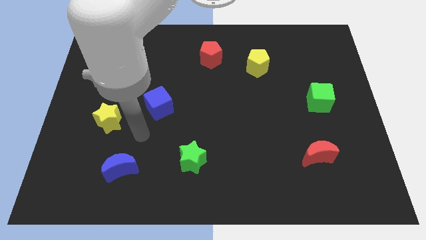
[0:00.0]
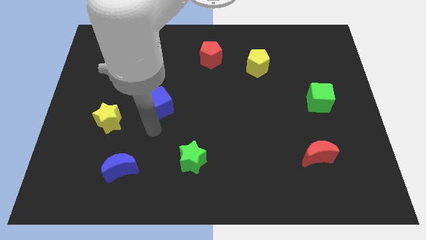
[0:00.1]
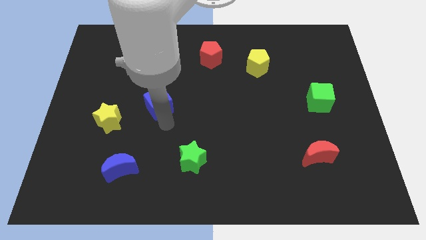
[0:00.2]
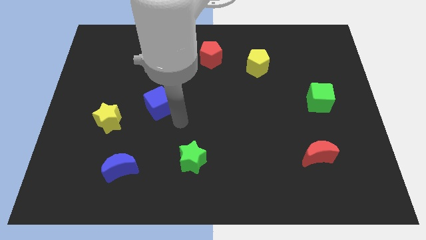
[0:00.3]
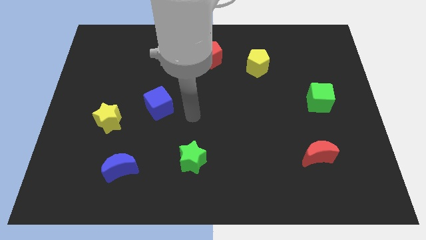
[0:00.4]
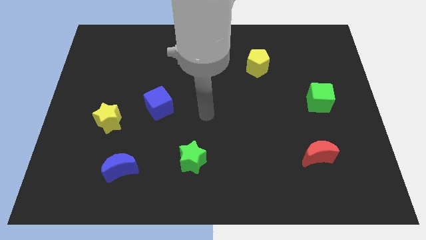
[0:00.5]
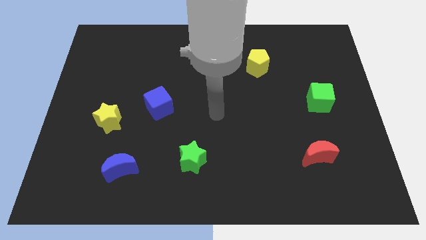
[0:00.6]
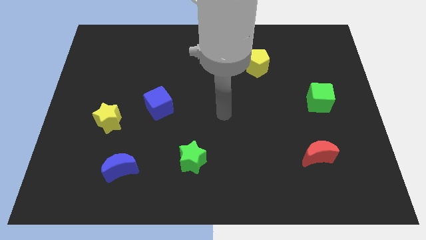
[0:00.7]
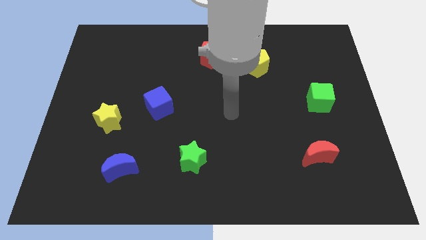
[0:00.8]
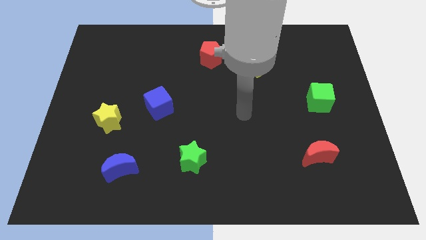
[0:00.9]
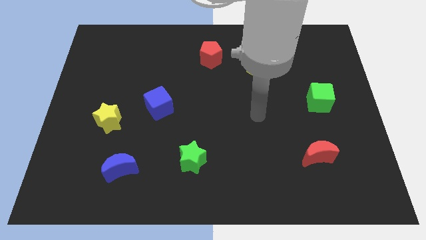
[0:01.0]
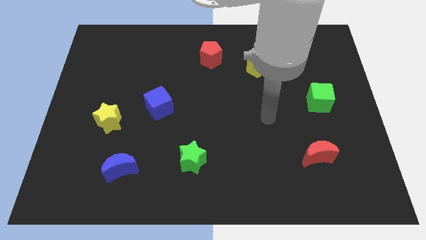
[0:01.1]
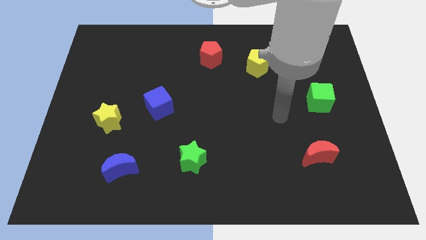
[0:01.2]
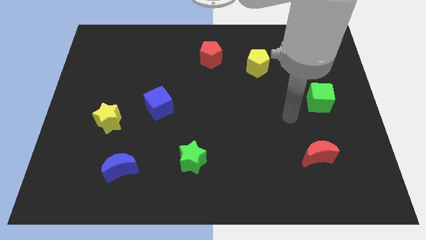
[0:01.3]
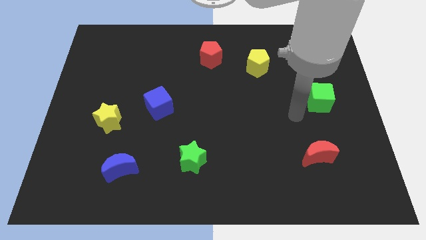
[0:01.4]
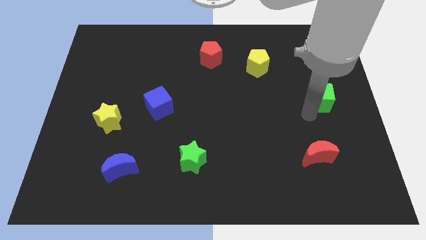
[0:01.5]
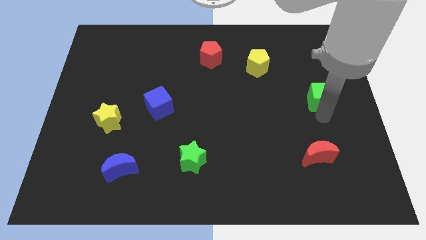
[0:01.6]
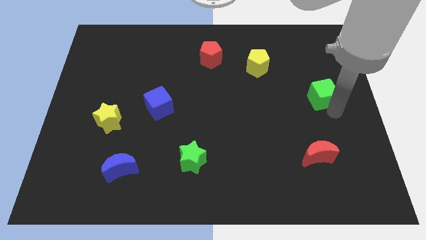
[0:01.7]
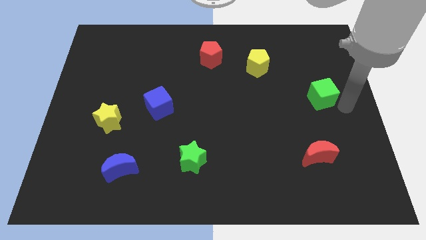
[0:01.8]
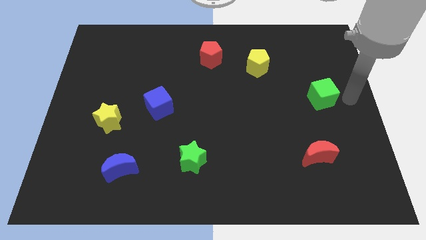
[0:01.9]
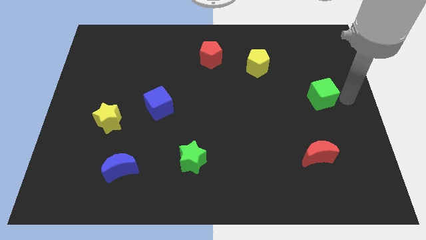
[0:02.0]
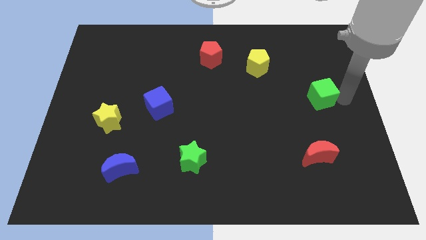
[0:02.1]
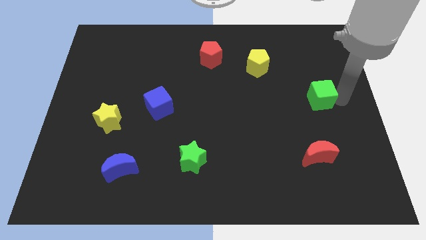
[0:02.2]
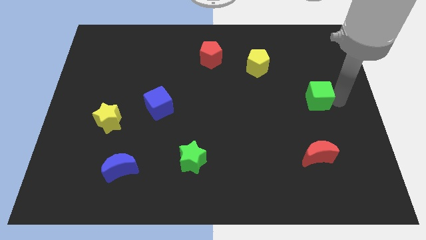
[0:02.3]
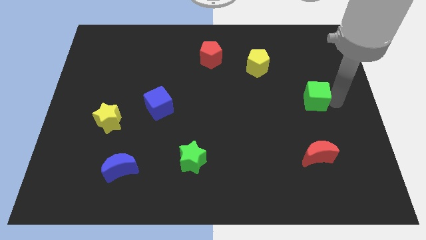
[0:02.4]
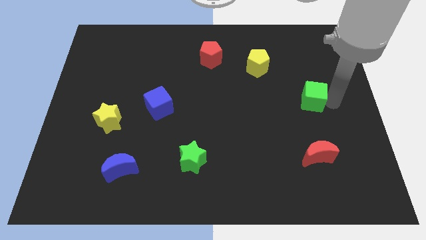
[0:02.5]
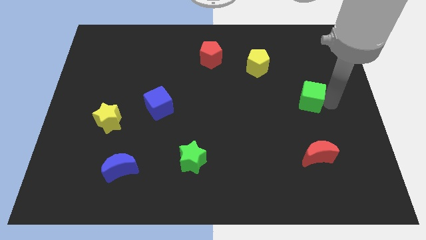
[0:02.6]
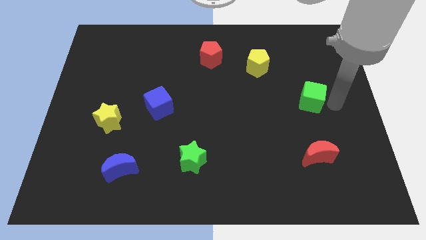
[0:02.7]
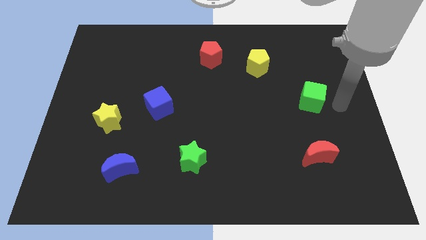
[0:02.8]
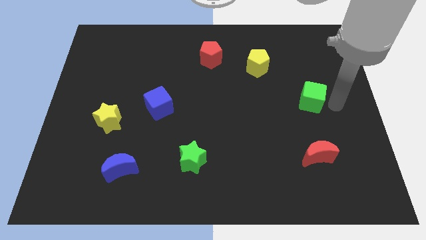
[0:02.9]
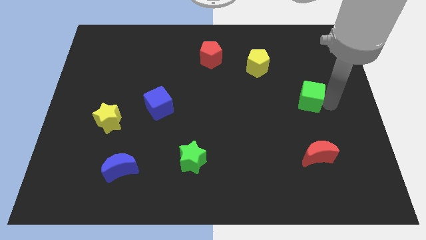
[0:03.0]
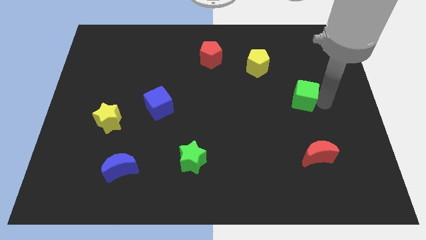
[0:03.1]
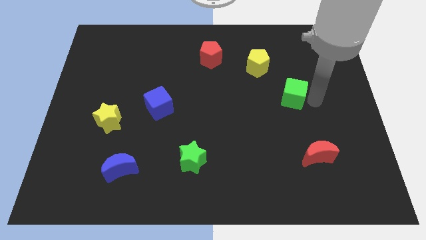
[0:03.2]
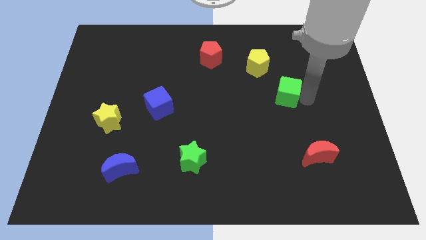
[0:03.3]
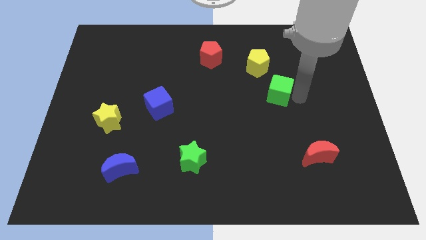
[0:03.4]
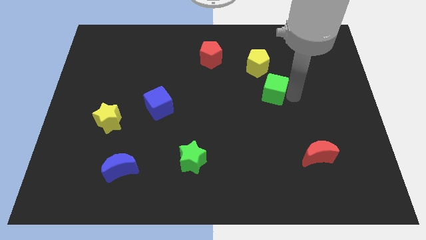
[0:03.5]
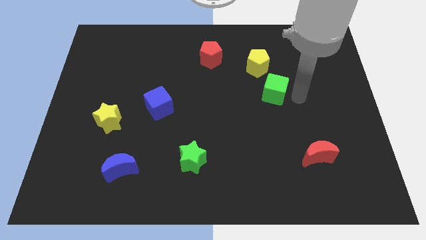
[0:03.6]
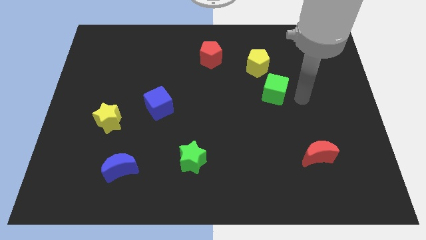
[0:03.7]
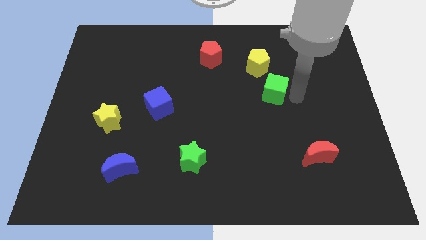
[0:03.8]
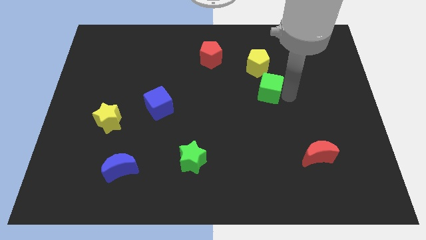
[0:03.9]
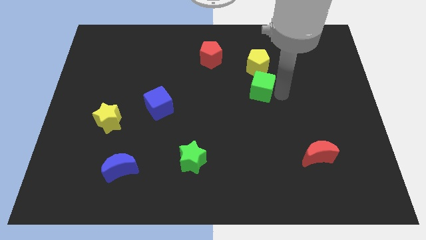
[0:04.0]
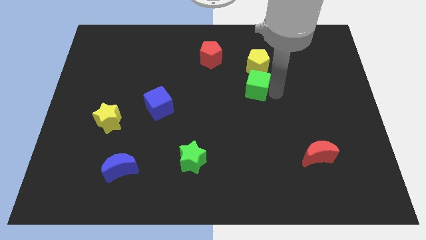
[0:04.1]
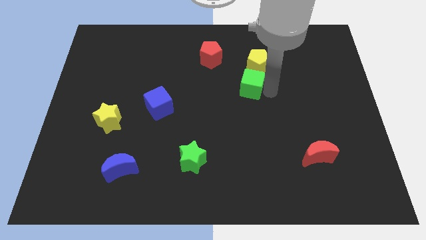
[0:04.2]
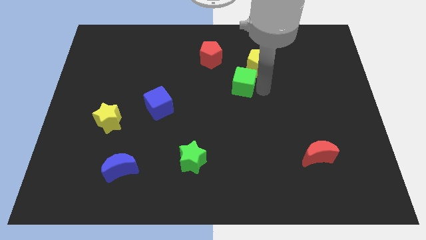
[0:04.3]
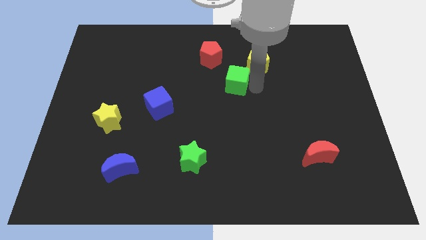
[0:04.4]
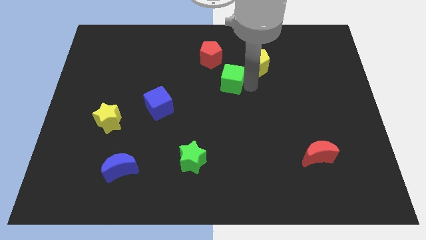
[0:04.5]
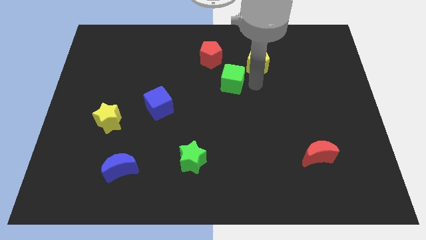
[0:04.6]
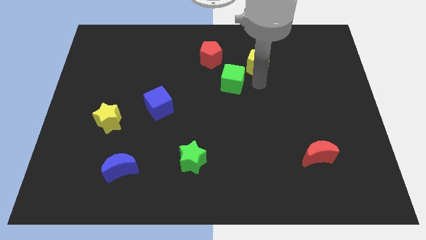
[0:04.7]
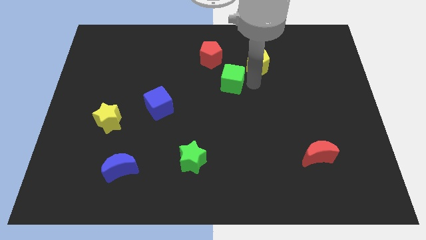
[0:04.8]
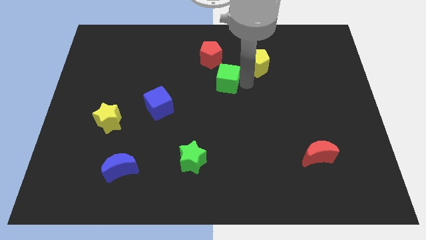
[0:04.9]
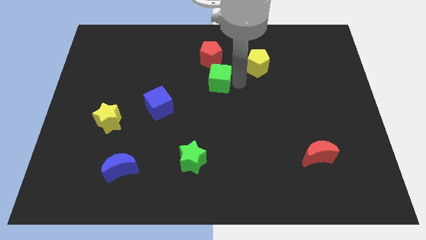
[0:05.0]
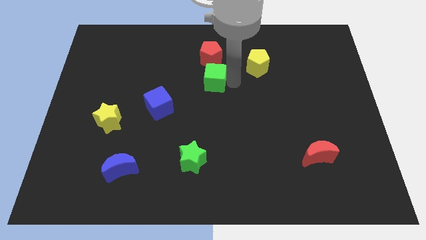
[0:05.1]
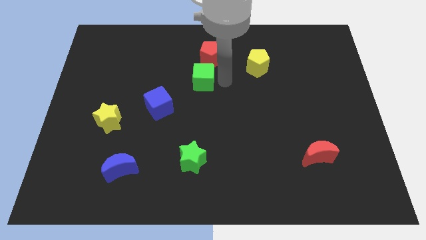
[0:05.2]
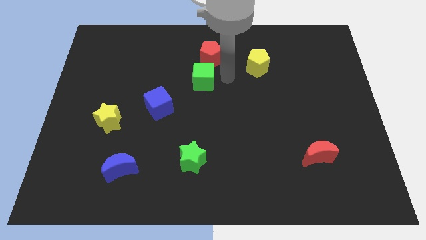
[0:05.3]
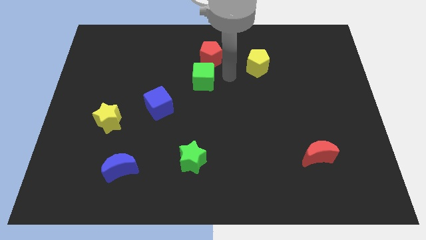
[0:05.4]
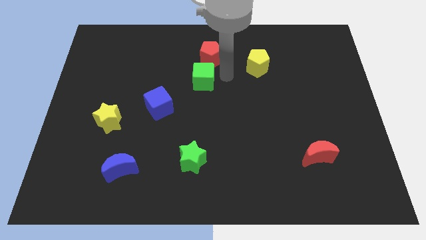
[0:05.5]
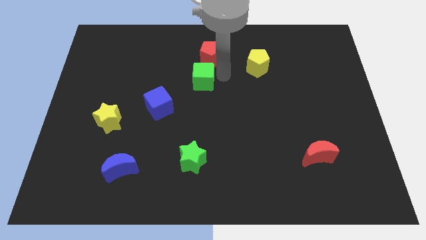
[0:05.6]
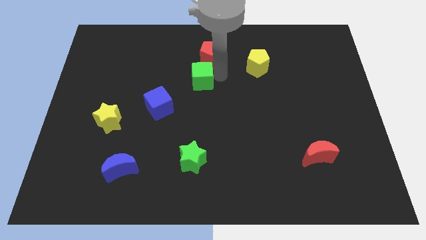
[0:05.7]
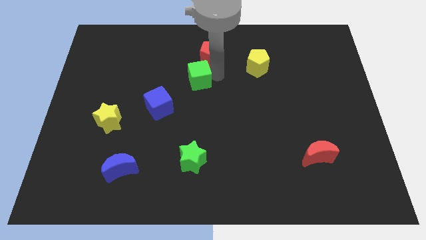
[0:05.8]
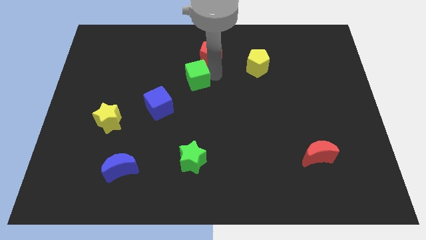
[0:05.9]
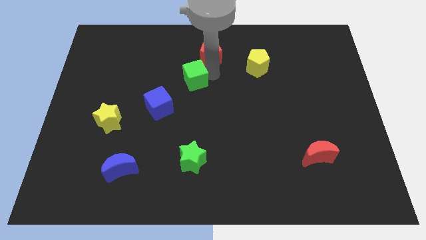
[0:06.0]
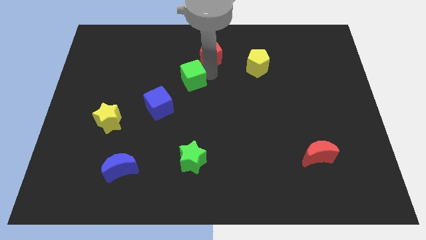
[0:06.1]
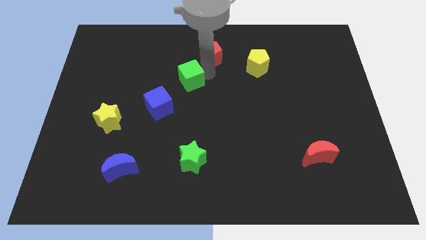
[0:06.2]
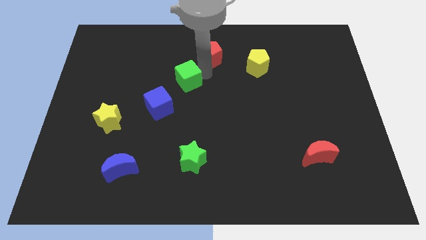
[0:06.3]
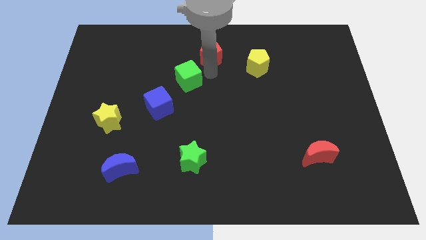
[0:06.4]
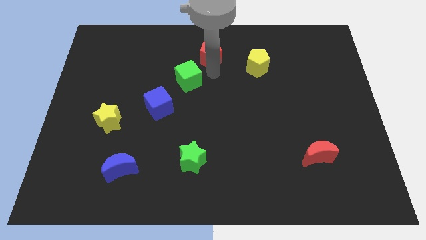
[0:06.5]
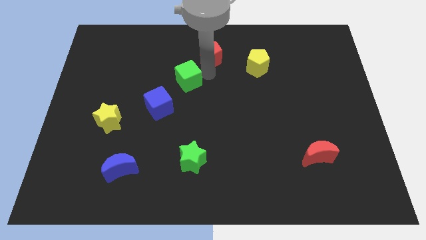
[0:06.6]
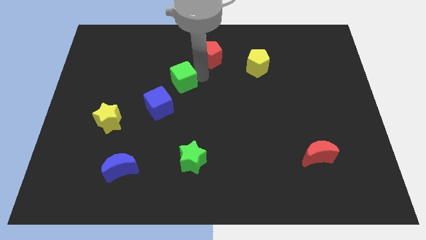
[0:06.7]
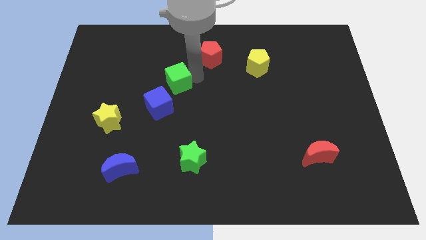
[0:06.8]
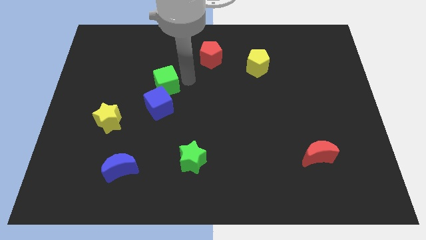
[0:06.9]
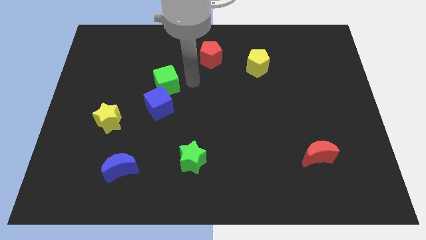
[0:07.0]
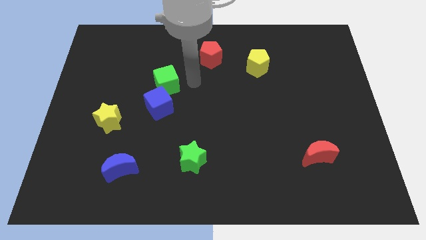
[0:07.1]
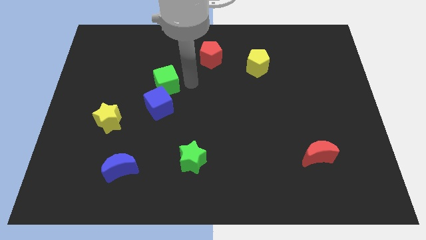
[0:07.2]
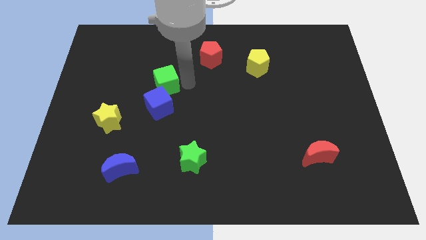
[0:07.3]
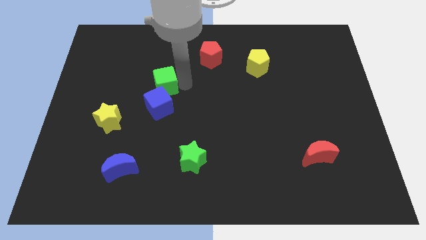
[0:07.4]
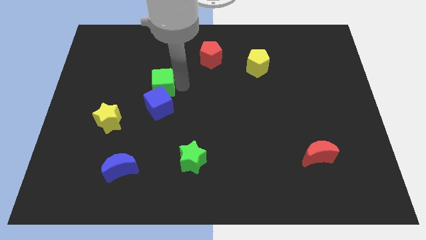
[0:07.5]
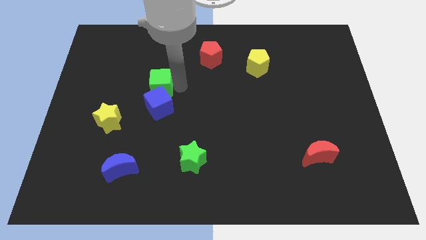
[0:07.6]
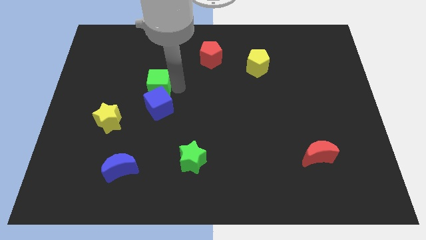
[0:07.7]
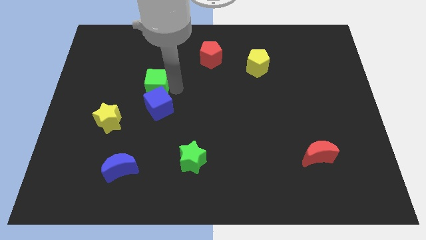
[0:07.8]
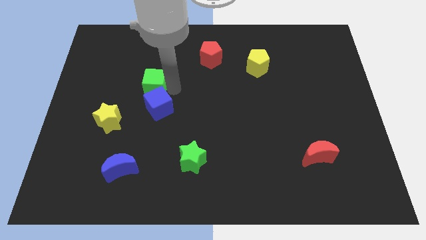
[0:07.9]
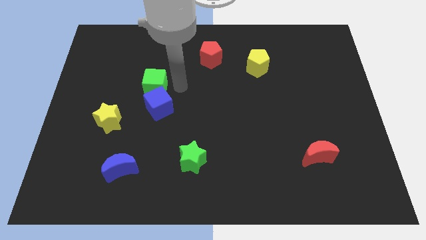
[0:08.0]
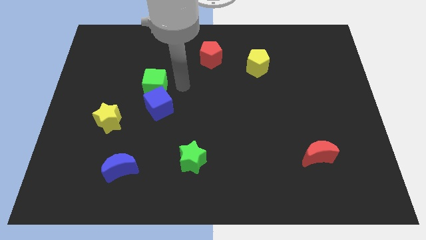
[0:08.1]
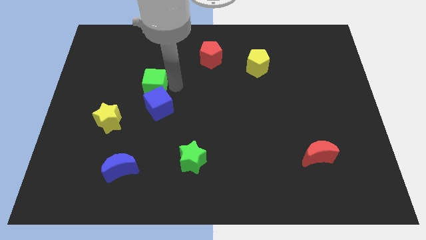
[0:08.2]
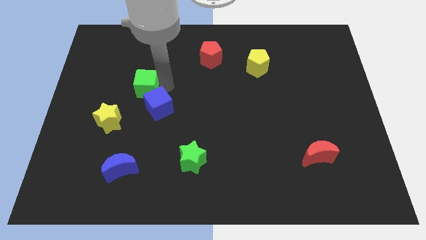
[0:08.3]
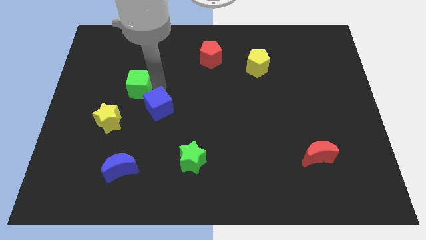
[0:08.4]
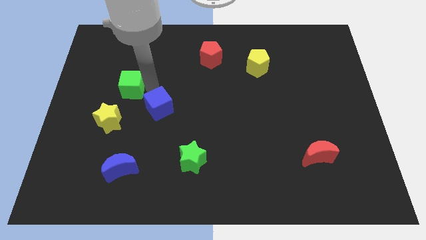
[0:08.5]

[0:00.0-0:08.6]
move the green cube above the yellow star
